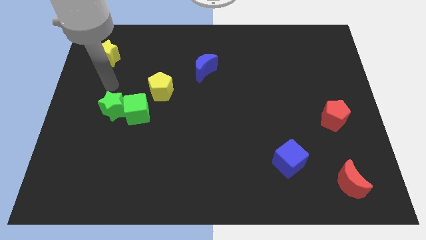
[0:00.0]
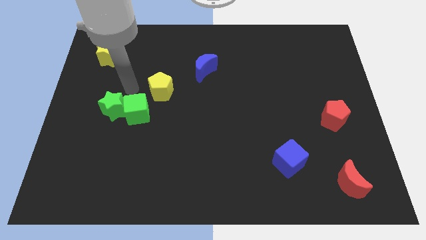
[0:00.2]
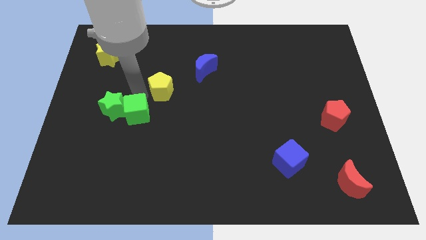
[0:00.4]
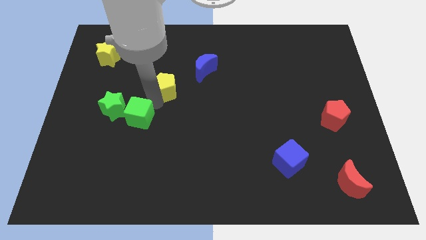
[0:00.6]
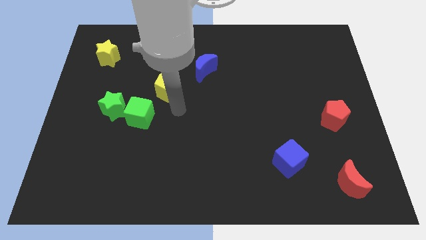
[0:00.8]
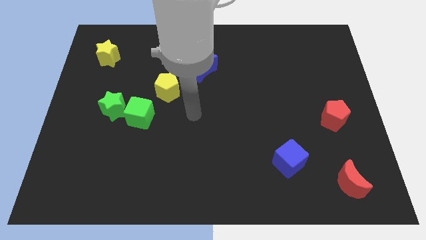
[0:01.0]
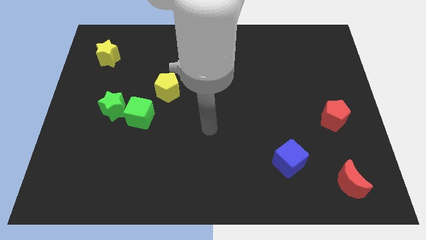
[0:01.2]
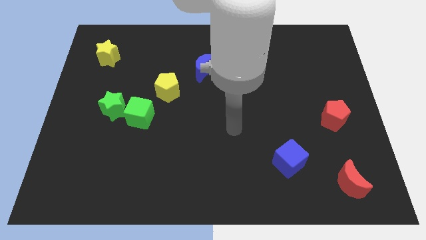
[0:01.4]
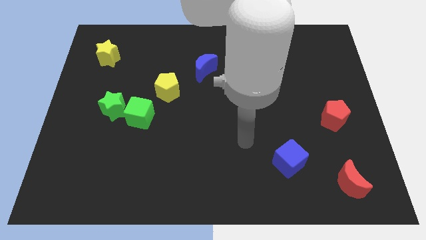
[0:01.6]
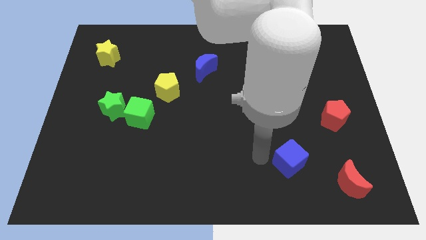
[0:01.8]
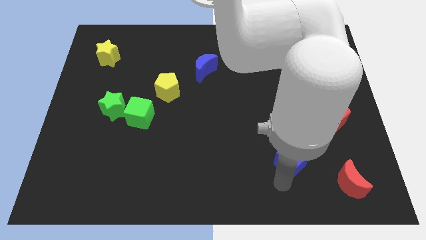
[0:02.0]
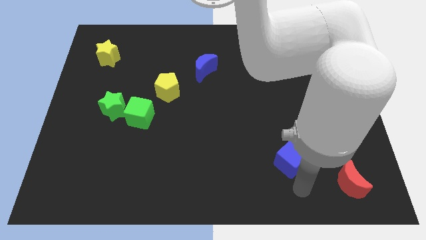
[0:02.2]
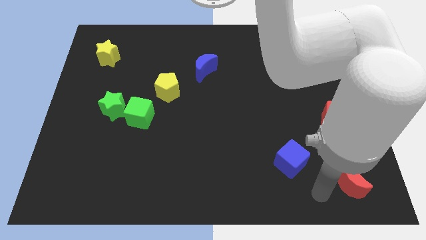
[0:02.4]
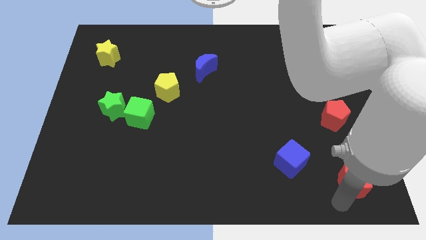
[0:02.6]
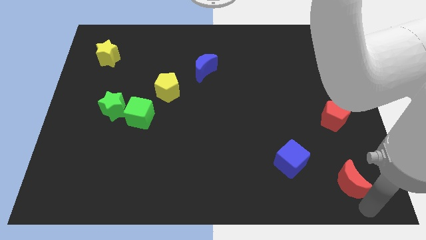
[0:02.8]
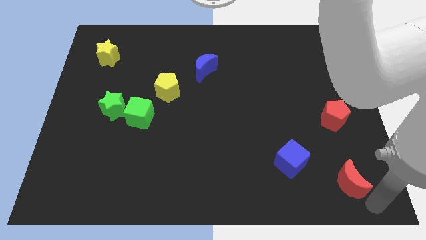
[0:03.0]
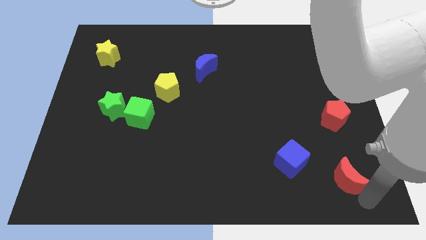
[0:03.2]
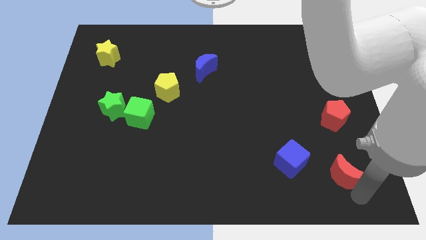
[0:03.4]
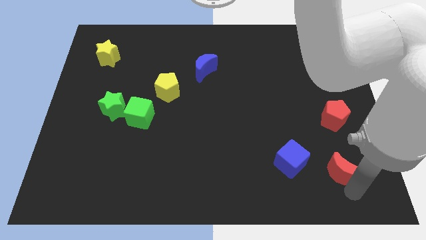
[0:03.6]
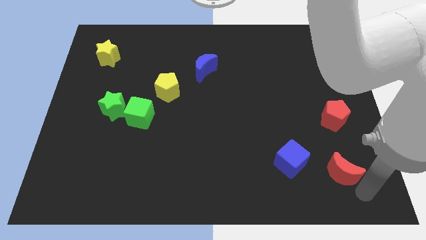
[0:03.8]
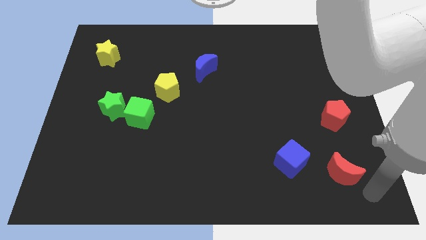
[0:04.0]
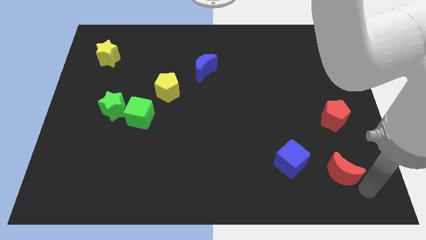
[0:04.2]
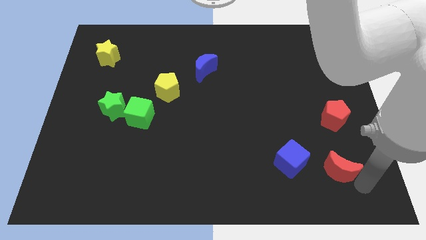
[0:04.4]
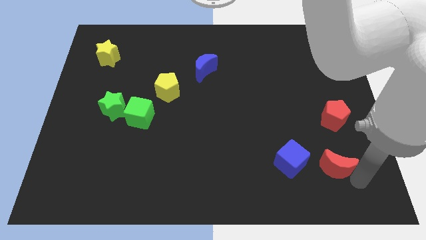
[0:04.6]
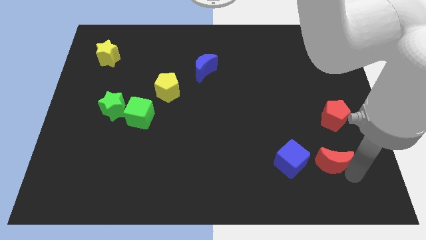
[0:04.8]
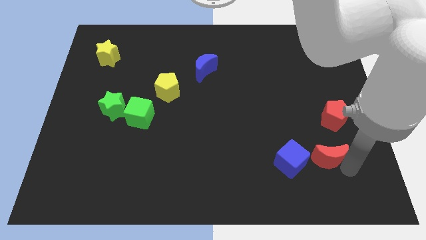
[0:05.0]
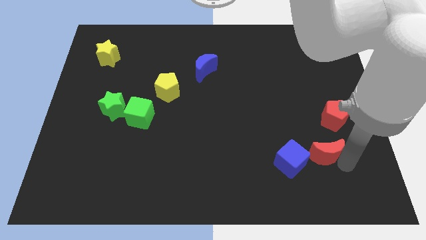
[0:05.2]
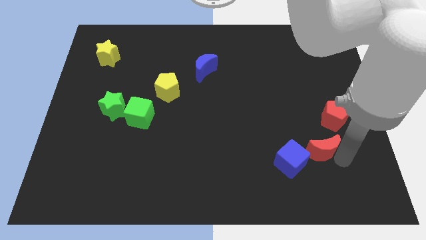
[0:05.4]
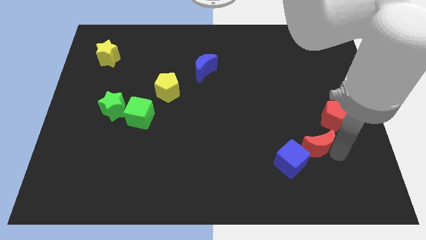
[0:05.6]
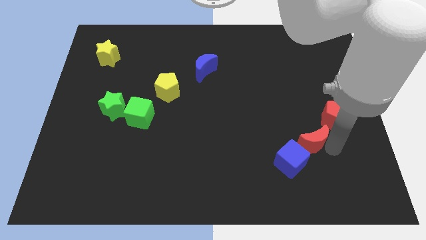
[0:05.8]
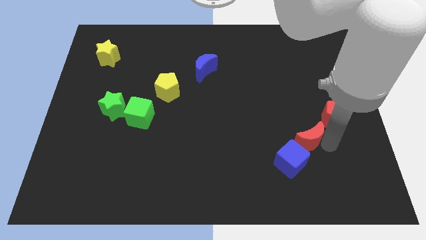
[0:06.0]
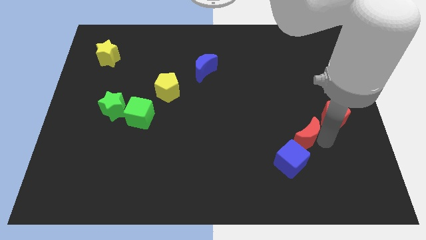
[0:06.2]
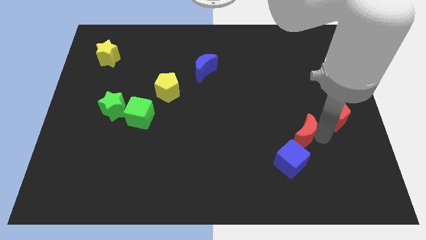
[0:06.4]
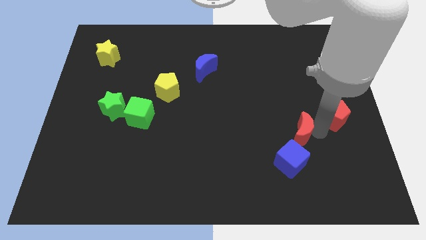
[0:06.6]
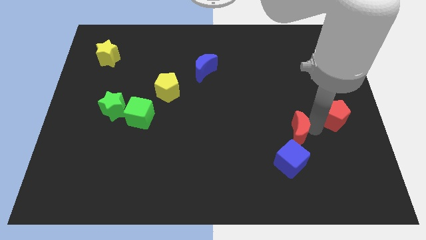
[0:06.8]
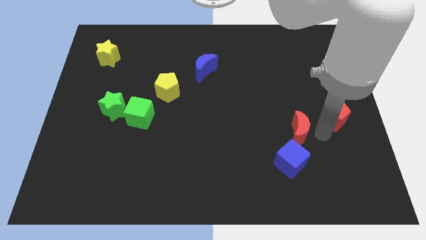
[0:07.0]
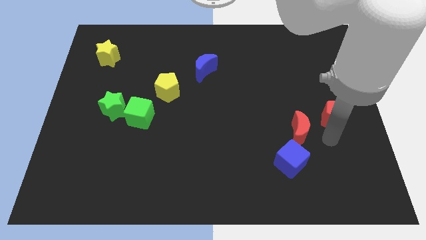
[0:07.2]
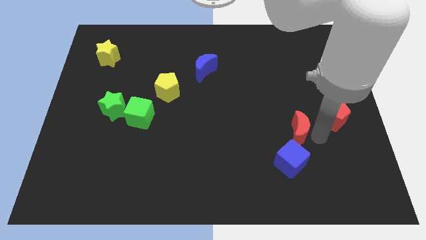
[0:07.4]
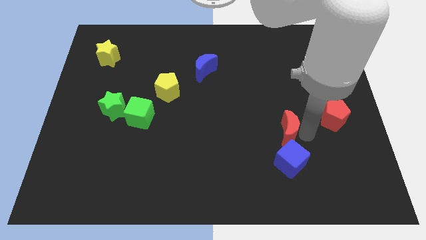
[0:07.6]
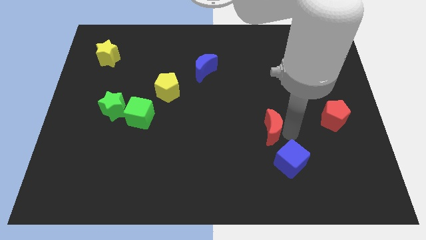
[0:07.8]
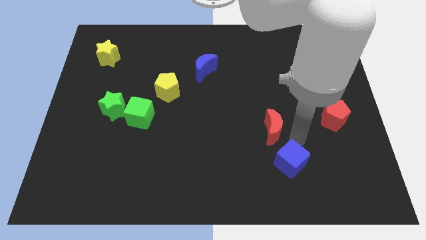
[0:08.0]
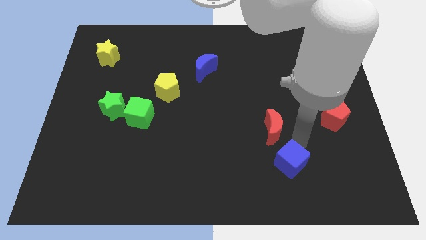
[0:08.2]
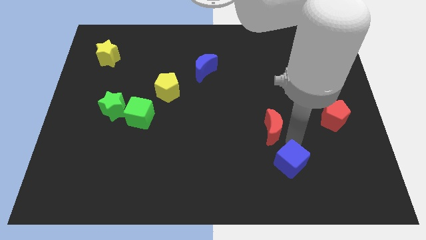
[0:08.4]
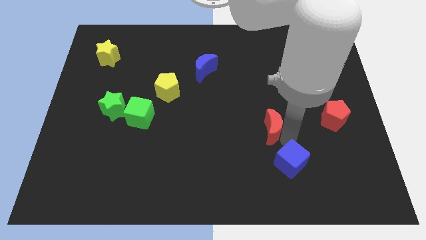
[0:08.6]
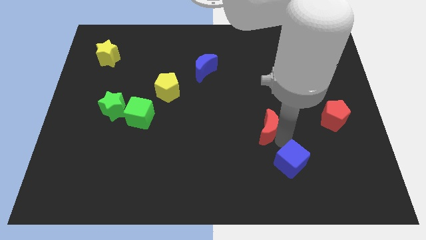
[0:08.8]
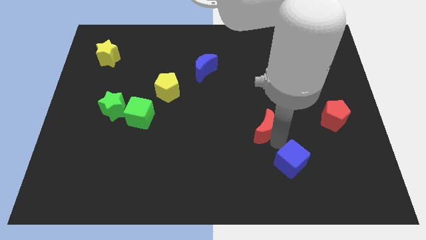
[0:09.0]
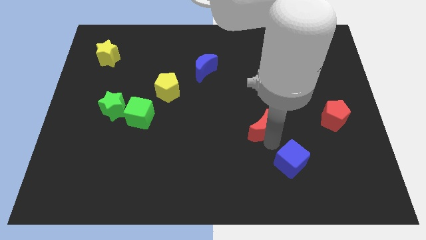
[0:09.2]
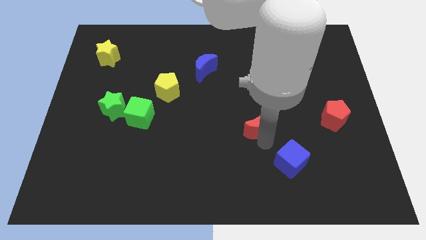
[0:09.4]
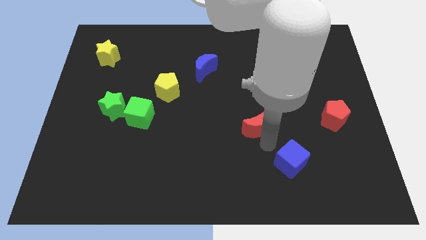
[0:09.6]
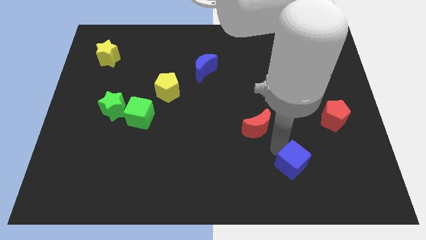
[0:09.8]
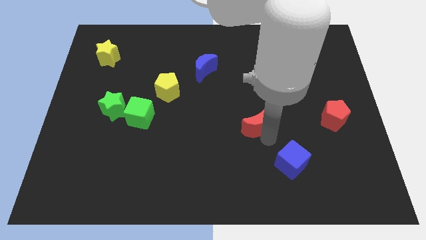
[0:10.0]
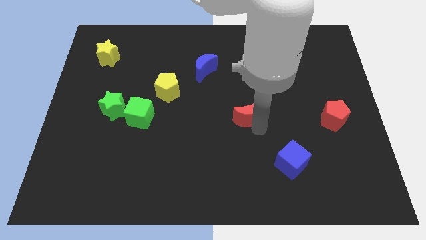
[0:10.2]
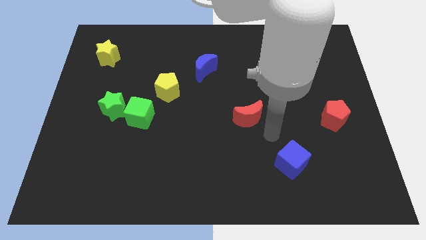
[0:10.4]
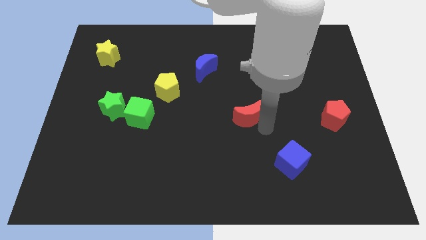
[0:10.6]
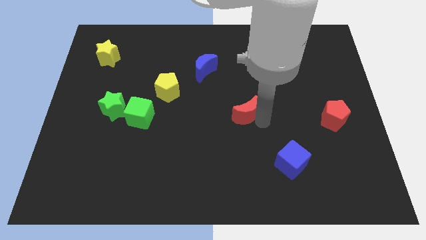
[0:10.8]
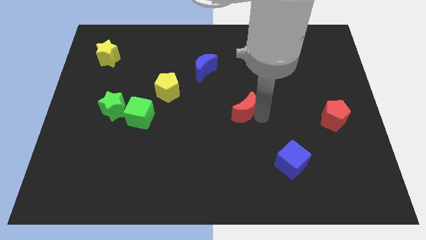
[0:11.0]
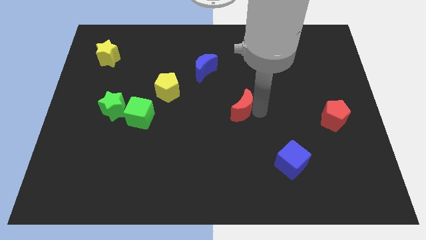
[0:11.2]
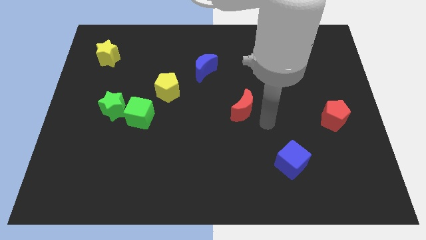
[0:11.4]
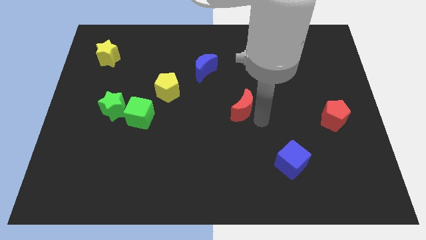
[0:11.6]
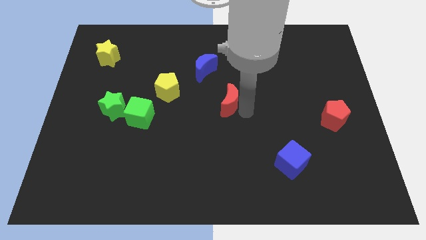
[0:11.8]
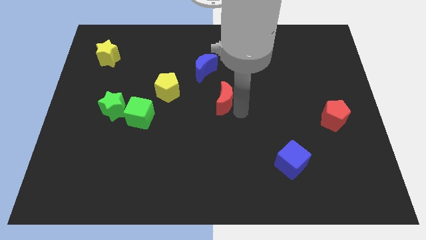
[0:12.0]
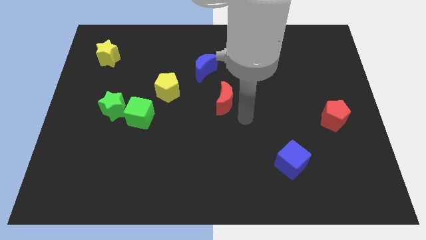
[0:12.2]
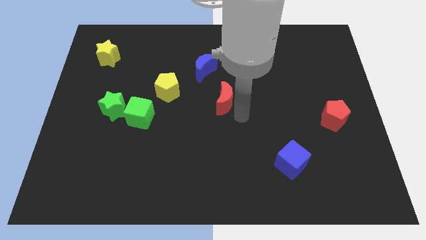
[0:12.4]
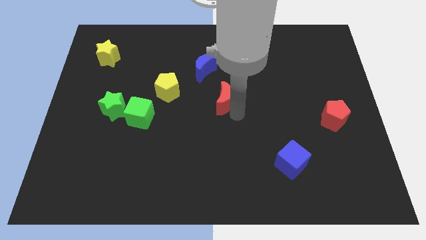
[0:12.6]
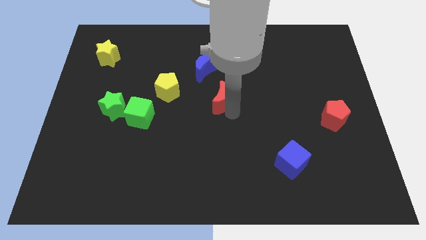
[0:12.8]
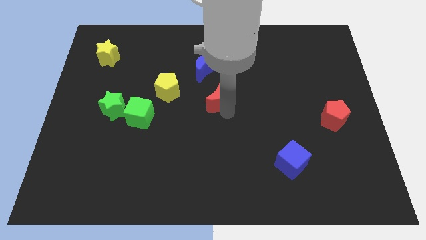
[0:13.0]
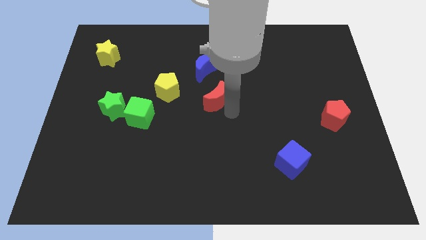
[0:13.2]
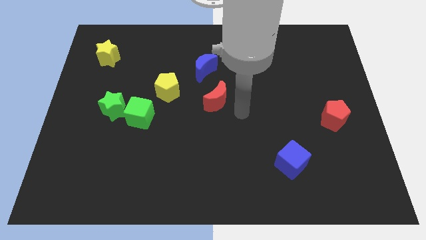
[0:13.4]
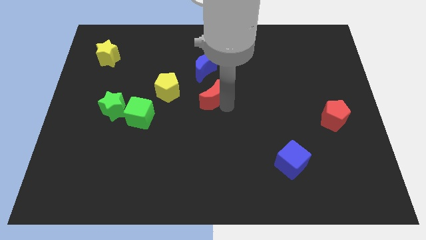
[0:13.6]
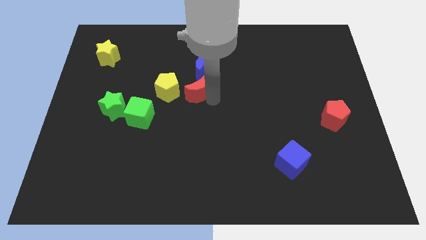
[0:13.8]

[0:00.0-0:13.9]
move the red moon diagonally down and to the left of the blue moon
